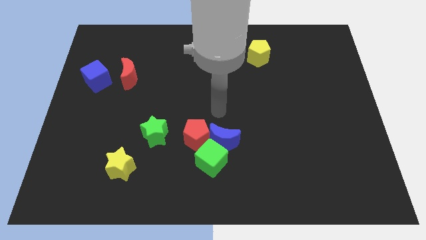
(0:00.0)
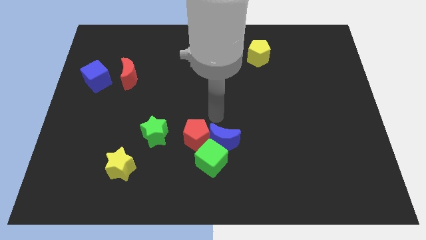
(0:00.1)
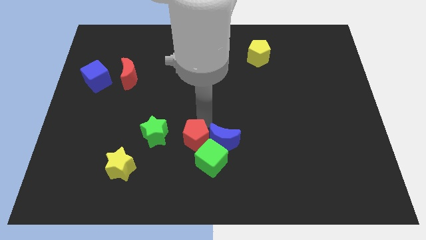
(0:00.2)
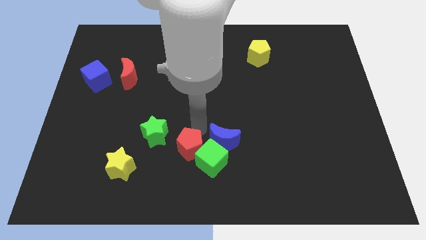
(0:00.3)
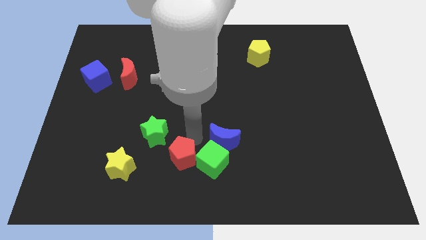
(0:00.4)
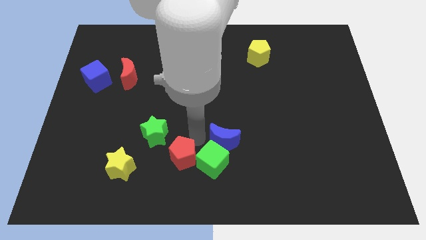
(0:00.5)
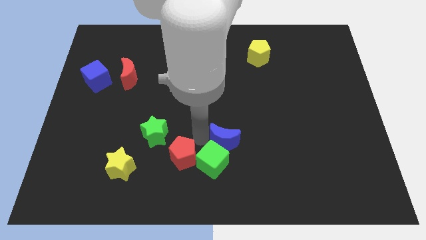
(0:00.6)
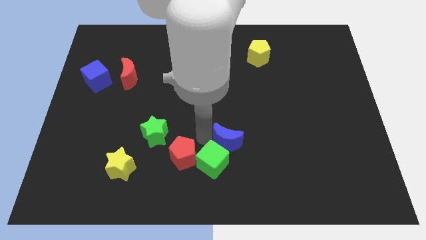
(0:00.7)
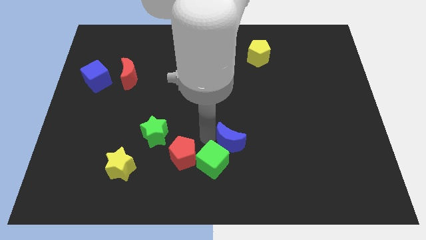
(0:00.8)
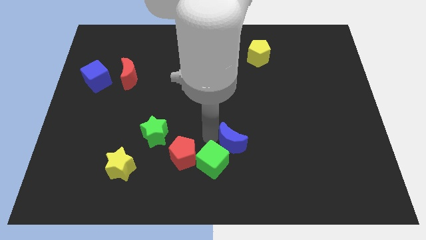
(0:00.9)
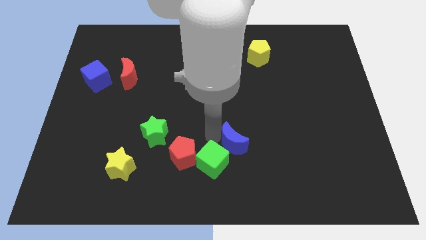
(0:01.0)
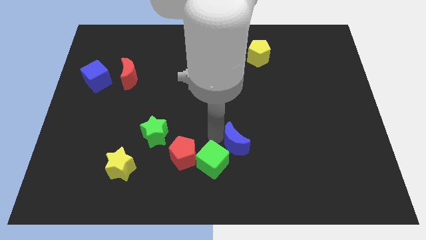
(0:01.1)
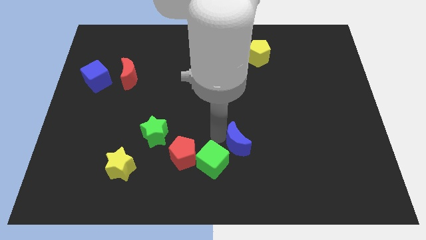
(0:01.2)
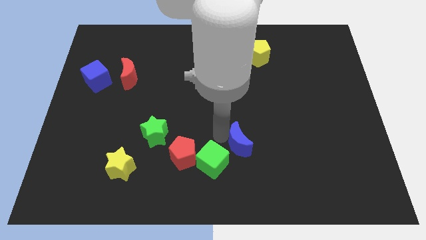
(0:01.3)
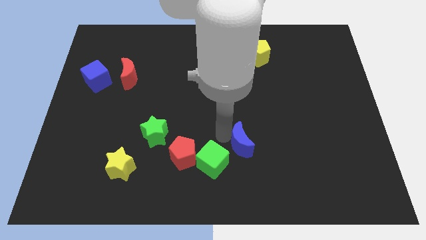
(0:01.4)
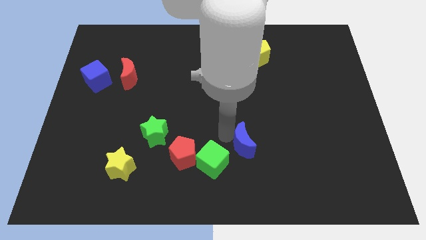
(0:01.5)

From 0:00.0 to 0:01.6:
separate the blue moon from the green cube and red pentagon

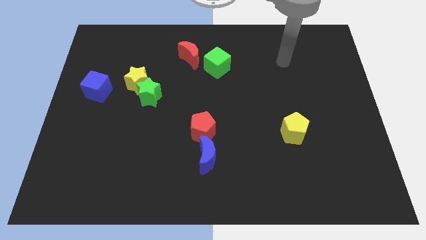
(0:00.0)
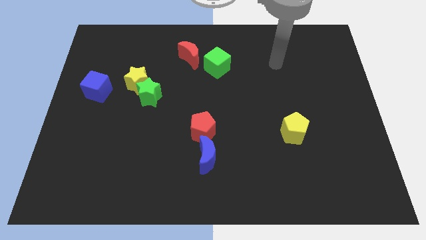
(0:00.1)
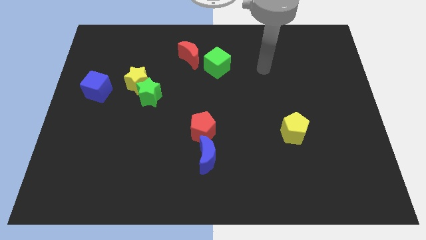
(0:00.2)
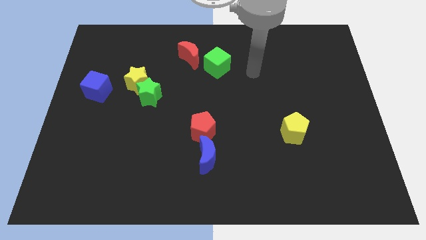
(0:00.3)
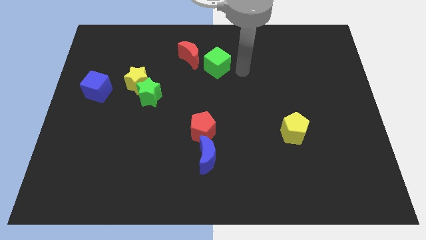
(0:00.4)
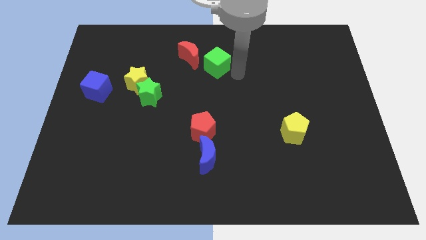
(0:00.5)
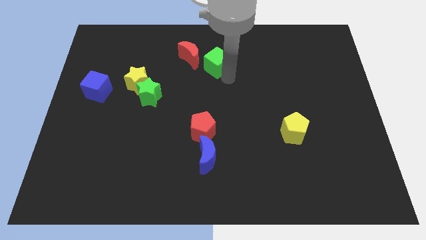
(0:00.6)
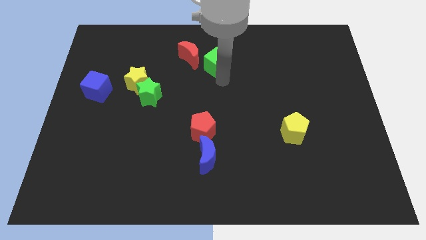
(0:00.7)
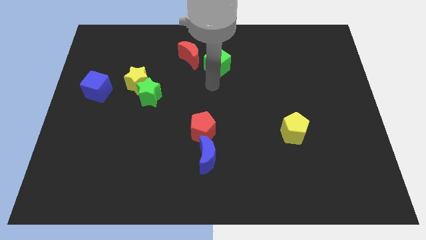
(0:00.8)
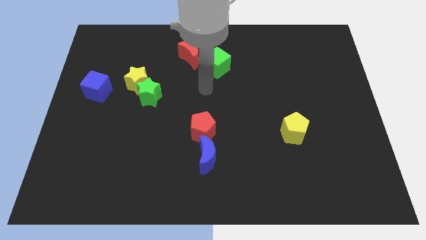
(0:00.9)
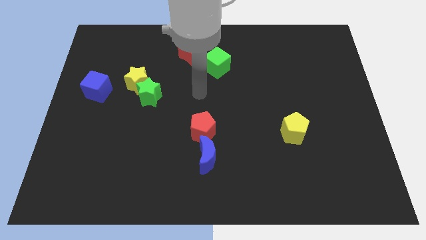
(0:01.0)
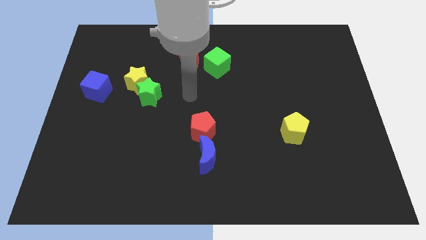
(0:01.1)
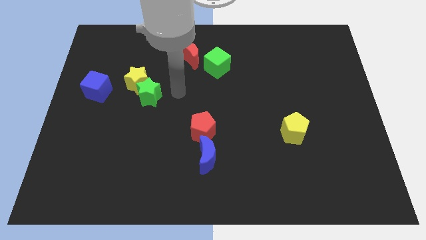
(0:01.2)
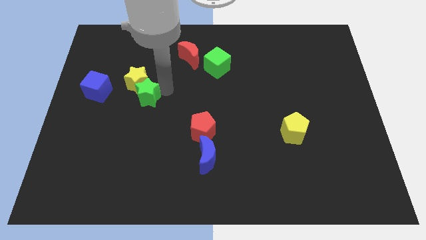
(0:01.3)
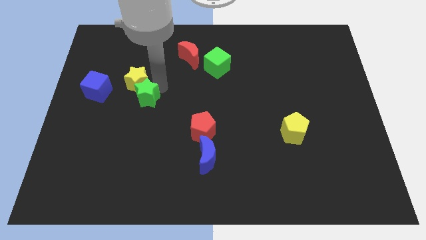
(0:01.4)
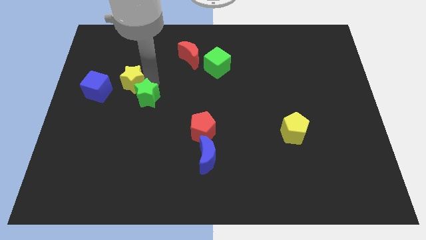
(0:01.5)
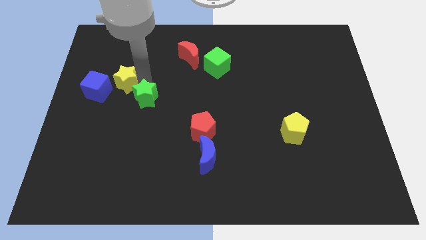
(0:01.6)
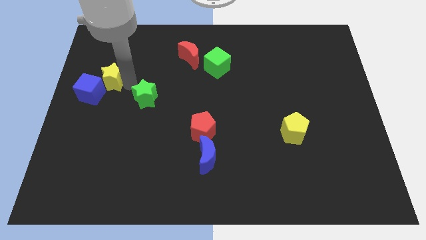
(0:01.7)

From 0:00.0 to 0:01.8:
pull the green star apart from the yellow star

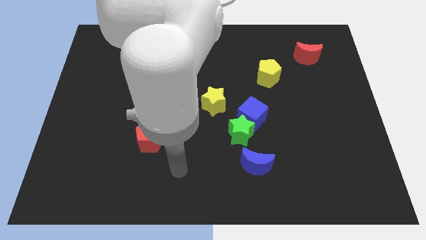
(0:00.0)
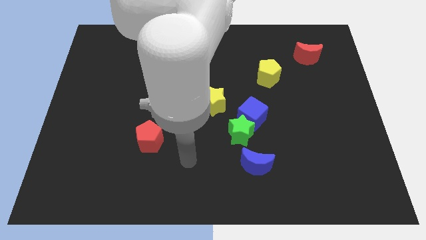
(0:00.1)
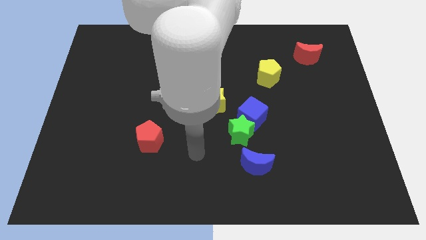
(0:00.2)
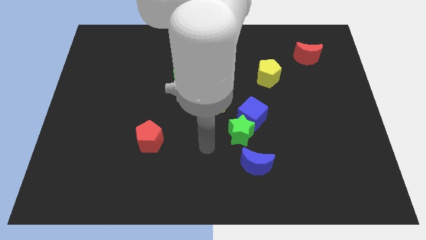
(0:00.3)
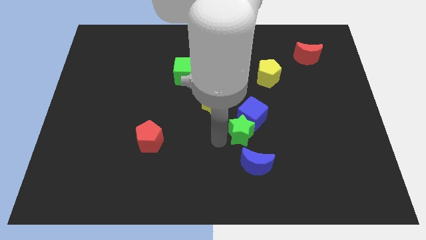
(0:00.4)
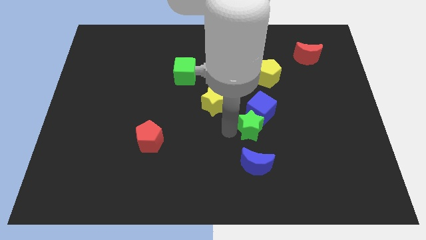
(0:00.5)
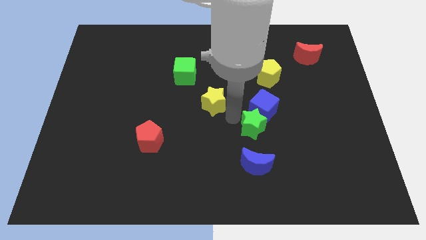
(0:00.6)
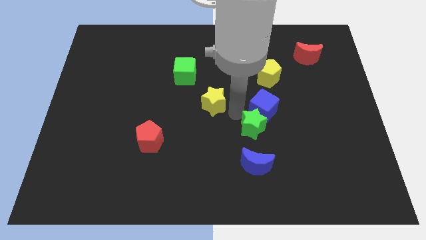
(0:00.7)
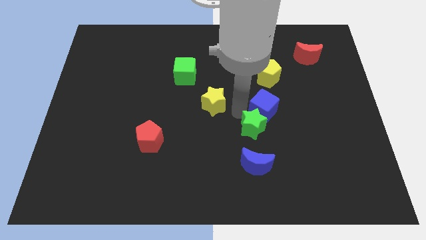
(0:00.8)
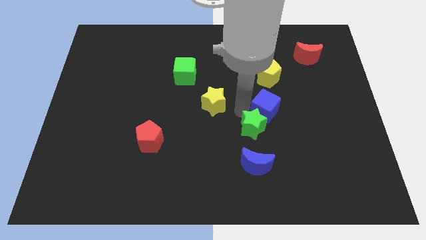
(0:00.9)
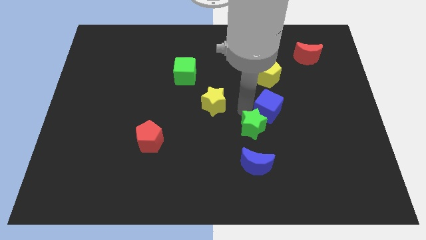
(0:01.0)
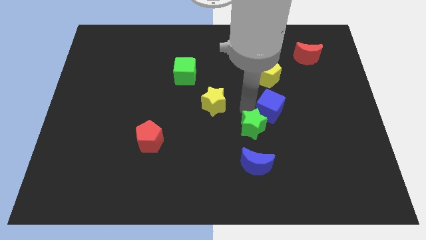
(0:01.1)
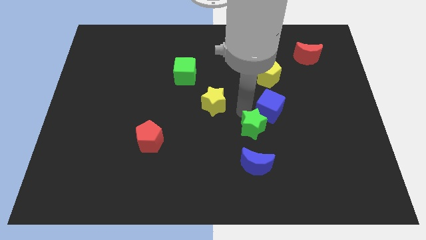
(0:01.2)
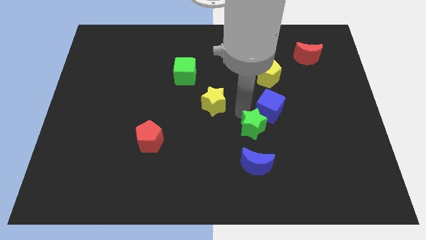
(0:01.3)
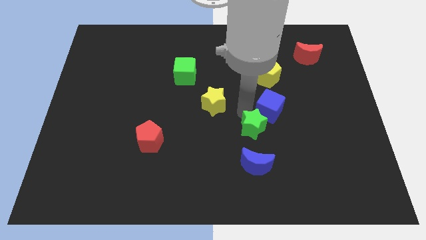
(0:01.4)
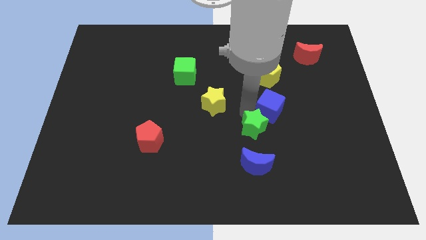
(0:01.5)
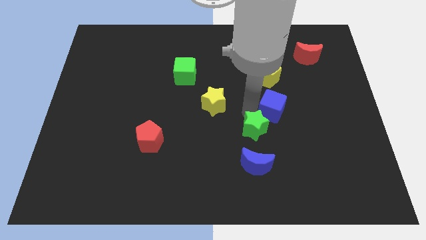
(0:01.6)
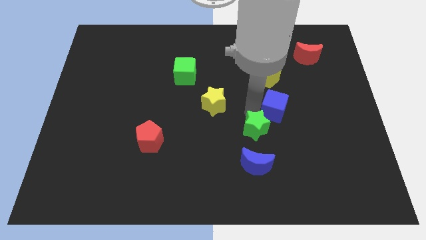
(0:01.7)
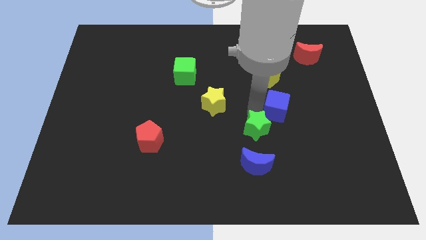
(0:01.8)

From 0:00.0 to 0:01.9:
pull the blue cube apart from the green star and yellow star

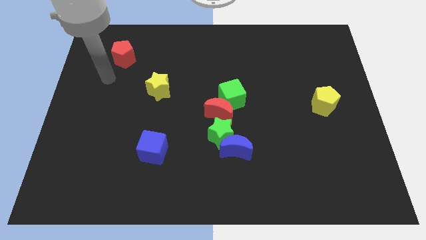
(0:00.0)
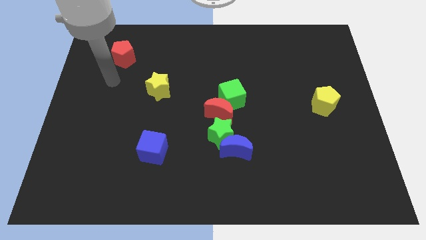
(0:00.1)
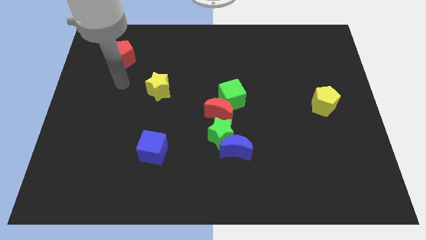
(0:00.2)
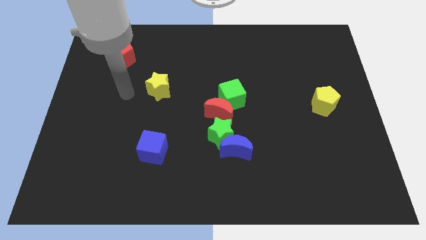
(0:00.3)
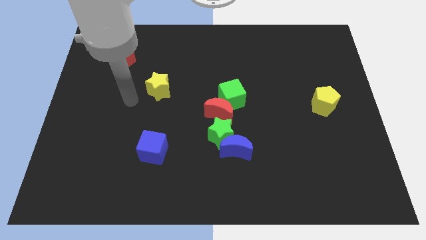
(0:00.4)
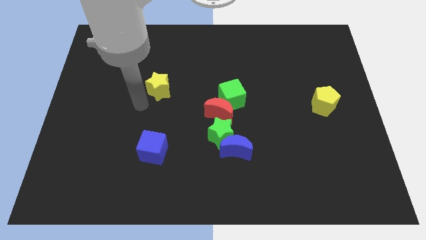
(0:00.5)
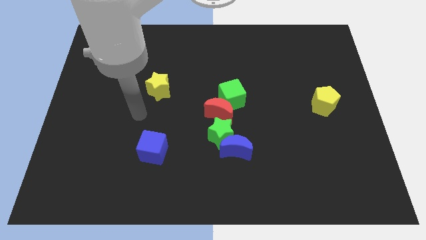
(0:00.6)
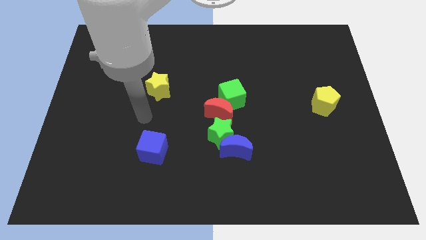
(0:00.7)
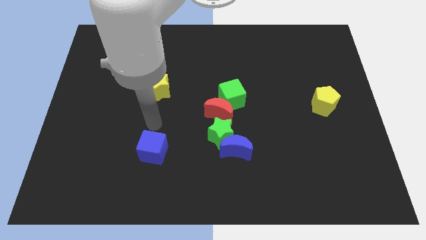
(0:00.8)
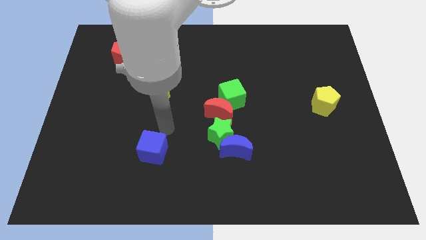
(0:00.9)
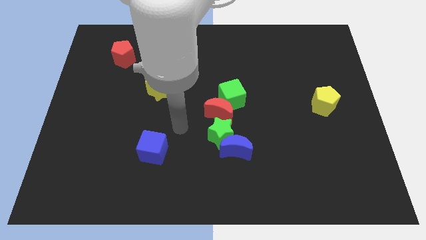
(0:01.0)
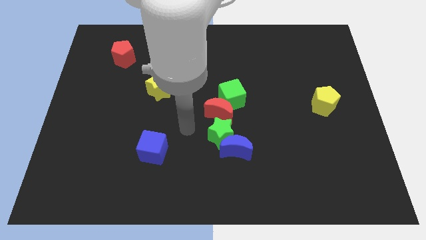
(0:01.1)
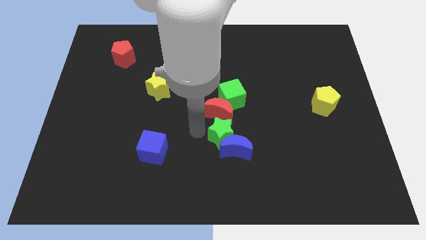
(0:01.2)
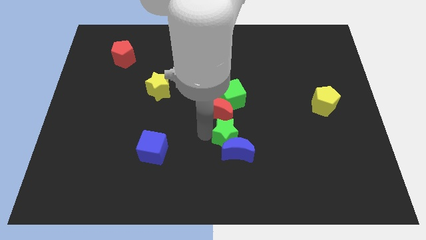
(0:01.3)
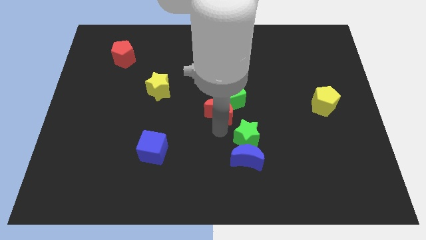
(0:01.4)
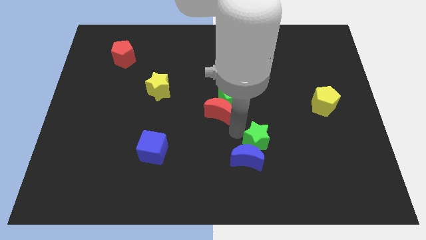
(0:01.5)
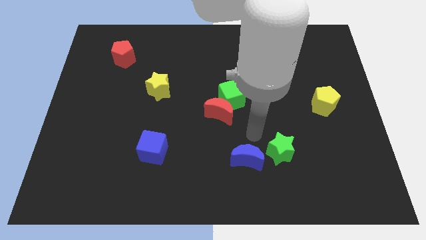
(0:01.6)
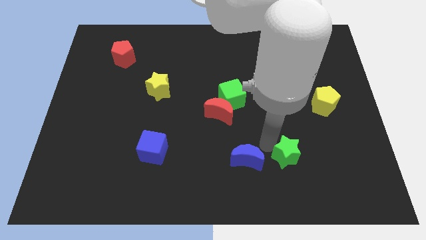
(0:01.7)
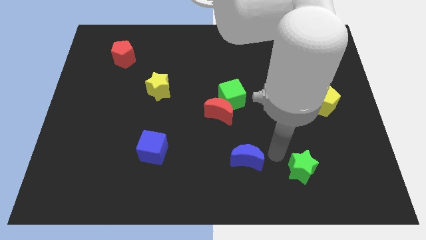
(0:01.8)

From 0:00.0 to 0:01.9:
move the blue moon away from the green star

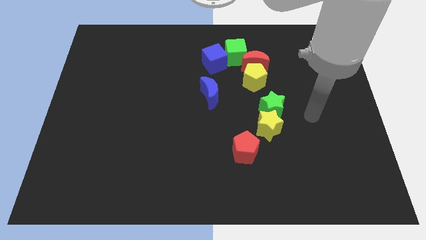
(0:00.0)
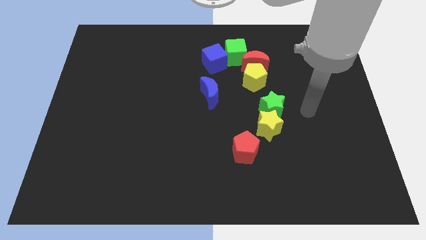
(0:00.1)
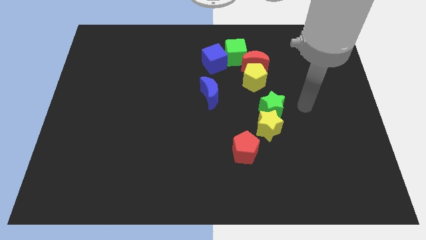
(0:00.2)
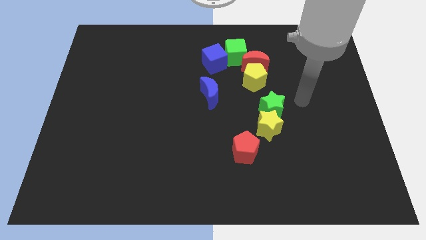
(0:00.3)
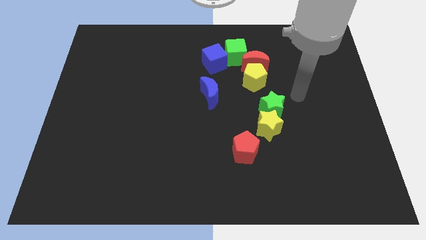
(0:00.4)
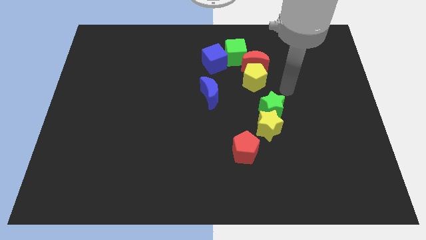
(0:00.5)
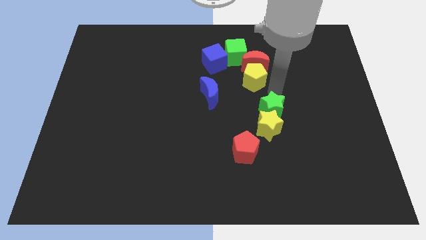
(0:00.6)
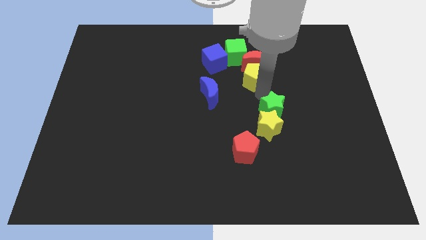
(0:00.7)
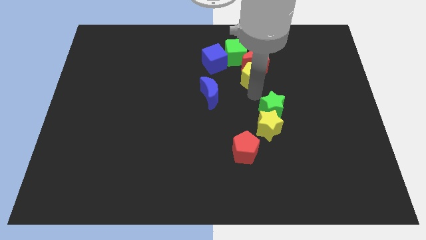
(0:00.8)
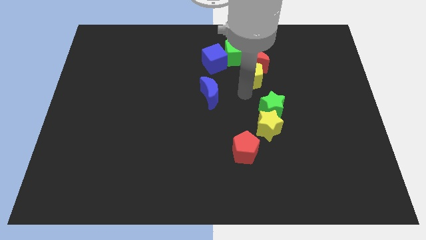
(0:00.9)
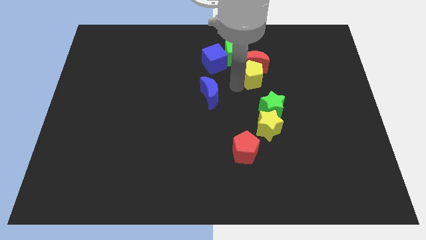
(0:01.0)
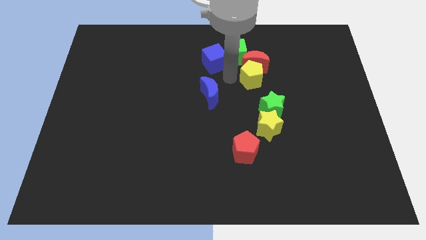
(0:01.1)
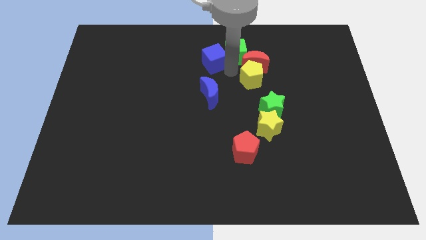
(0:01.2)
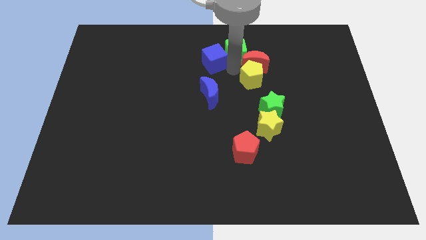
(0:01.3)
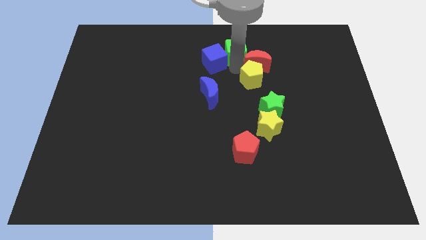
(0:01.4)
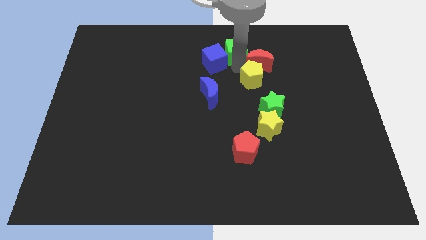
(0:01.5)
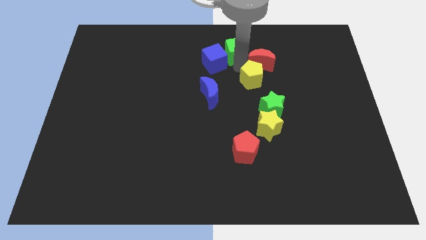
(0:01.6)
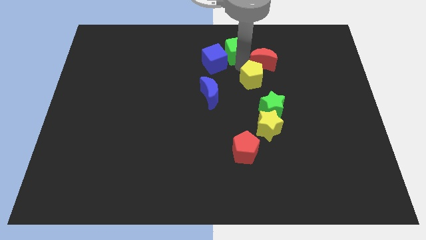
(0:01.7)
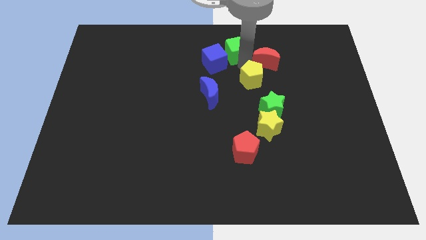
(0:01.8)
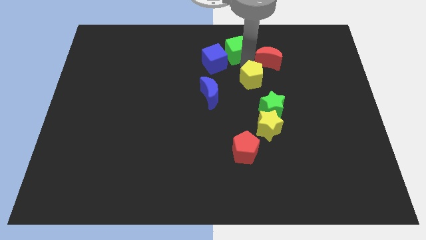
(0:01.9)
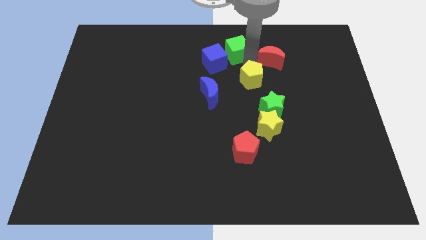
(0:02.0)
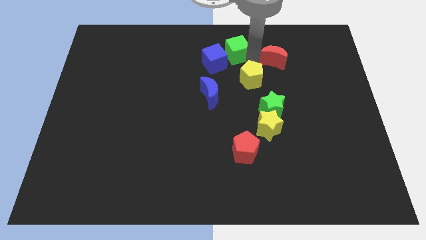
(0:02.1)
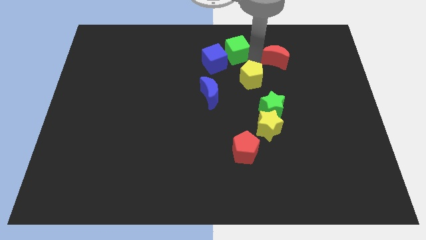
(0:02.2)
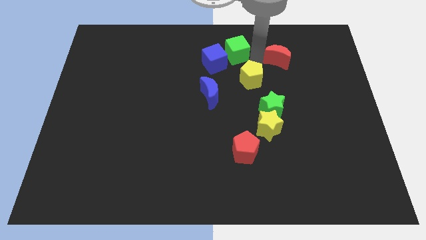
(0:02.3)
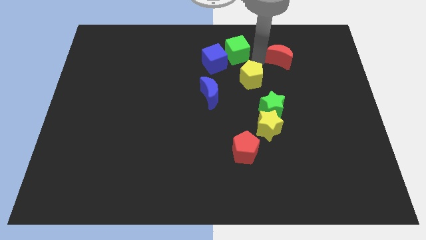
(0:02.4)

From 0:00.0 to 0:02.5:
move the red moon away from the yellow pentagon and green cube
